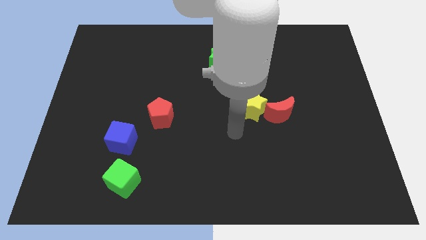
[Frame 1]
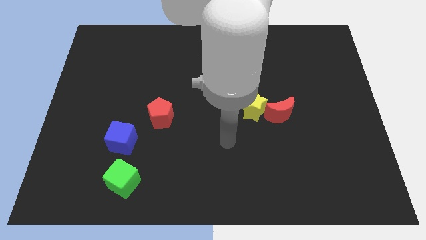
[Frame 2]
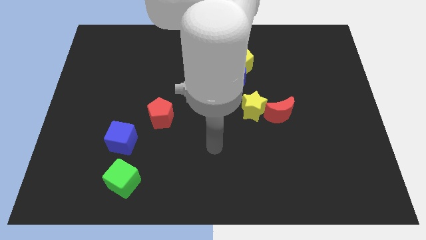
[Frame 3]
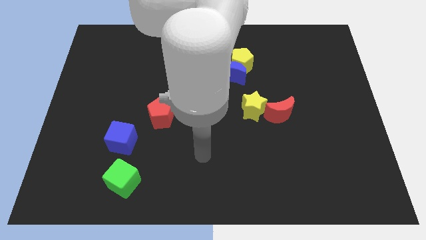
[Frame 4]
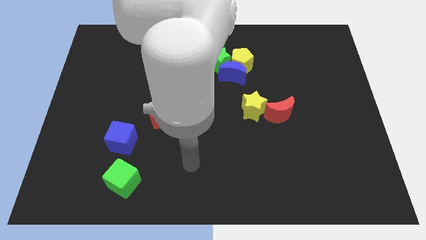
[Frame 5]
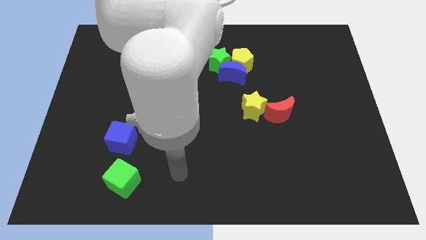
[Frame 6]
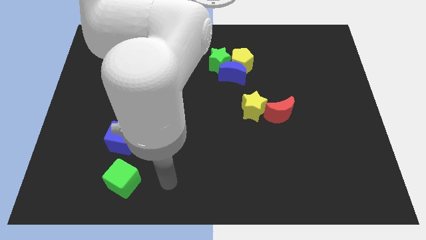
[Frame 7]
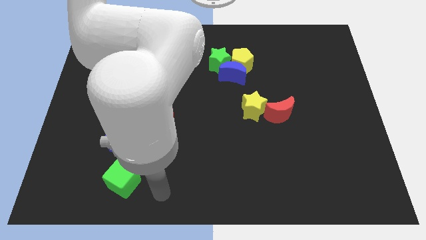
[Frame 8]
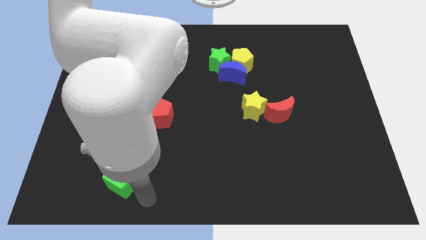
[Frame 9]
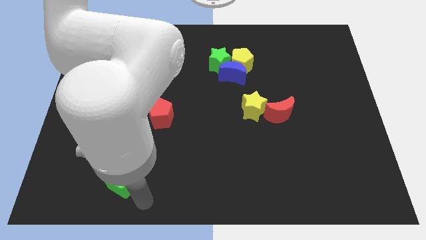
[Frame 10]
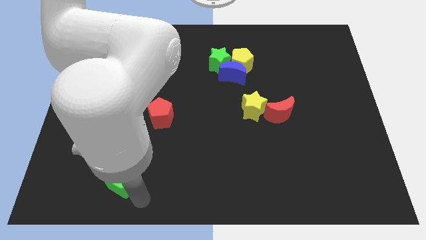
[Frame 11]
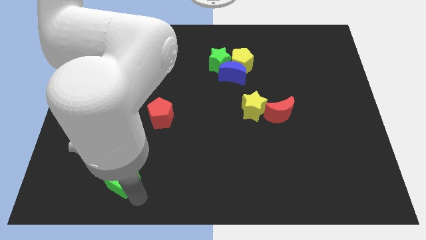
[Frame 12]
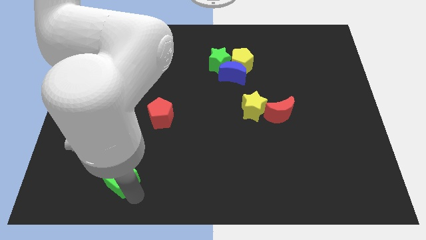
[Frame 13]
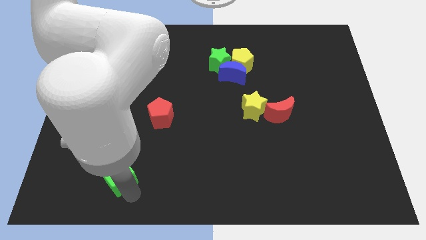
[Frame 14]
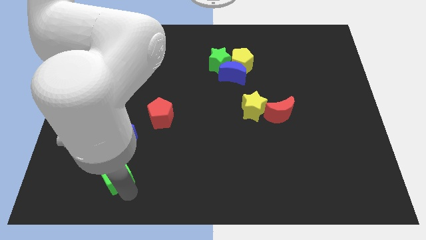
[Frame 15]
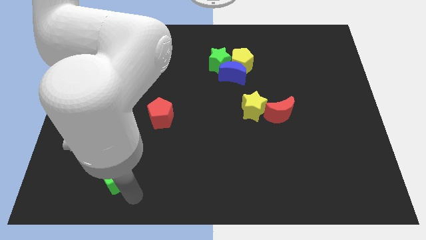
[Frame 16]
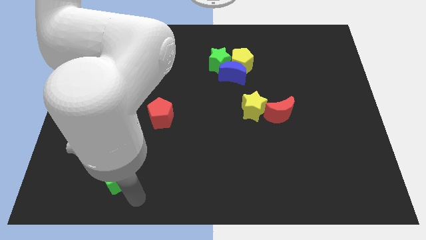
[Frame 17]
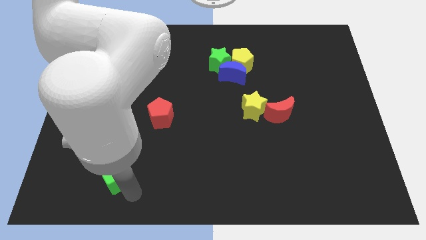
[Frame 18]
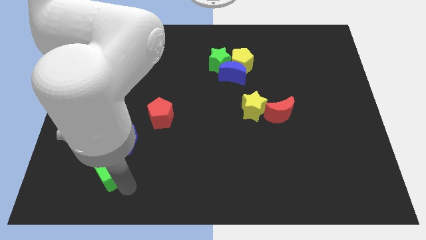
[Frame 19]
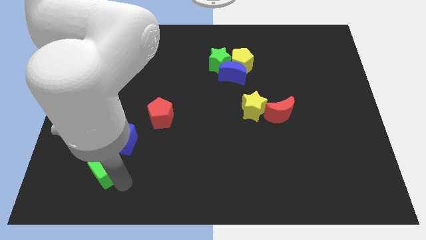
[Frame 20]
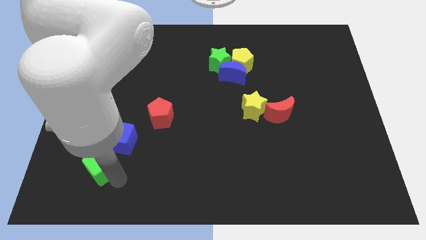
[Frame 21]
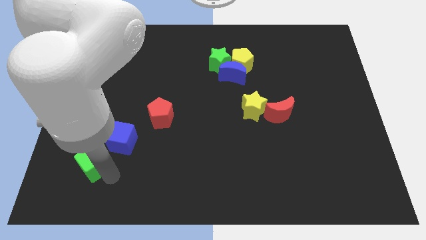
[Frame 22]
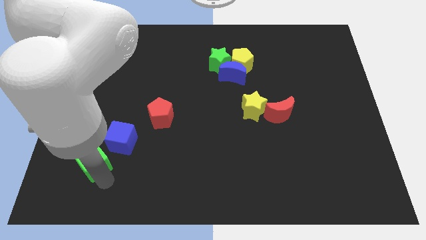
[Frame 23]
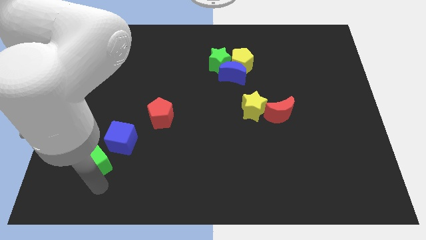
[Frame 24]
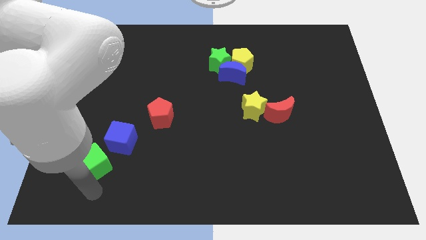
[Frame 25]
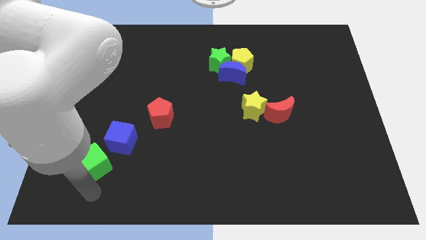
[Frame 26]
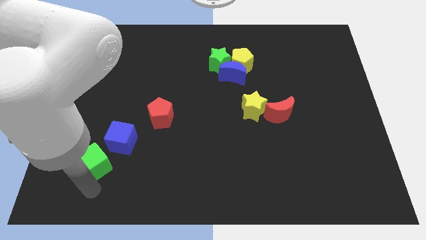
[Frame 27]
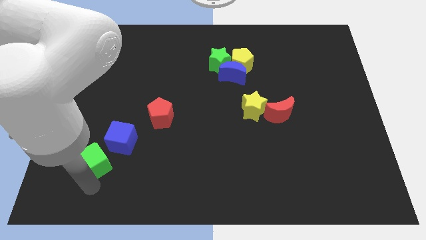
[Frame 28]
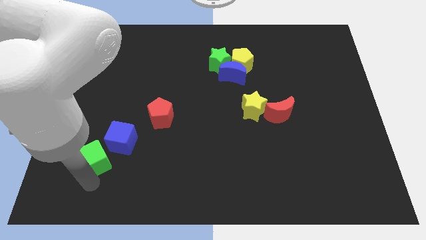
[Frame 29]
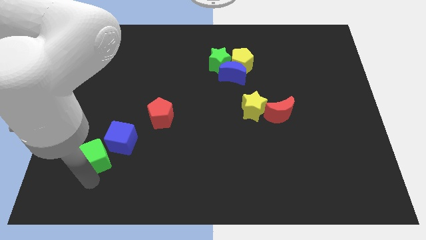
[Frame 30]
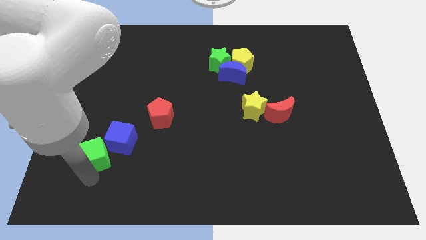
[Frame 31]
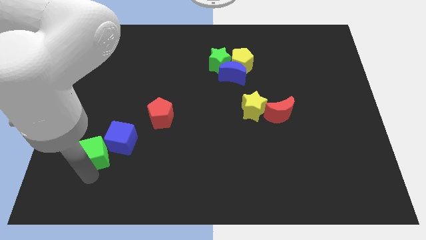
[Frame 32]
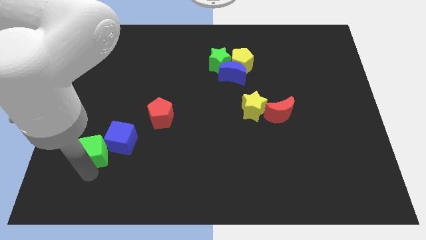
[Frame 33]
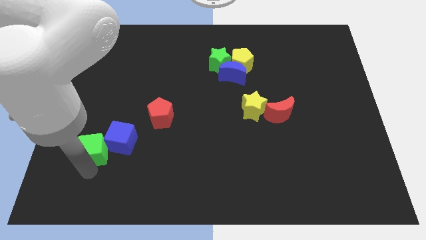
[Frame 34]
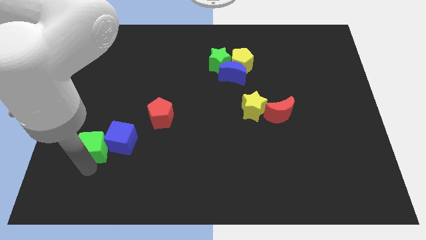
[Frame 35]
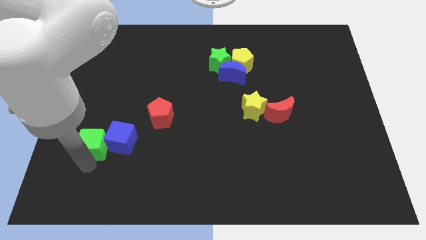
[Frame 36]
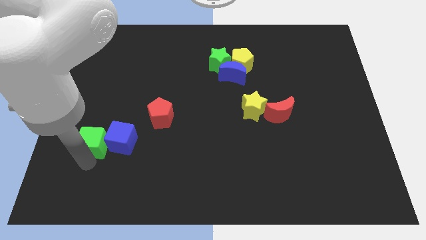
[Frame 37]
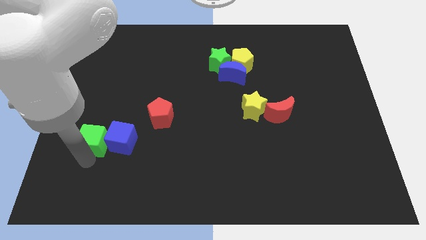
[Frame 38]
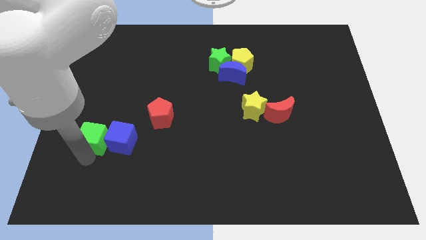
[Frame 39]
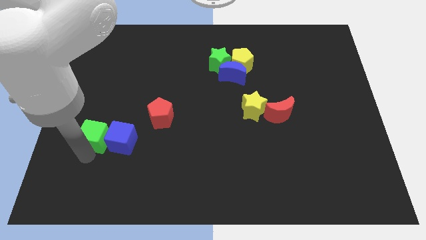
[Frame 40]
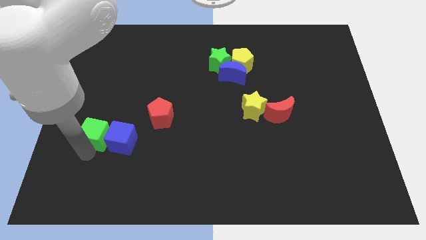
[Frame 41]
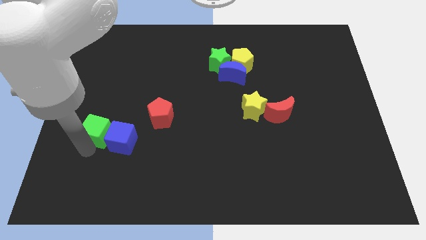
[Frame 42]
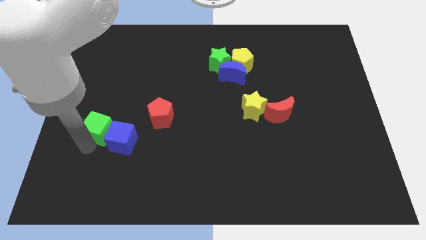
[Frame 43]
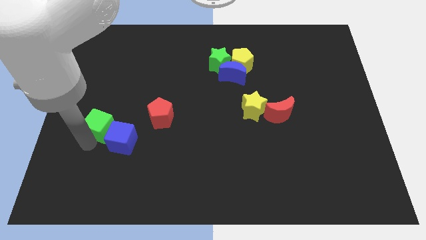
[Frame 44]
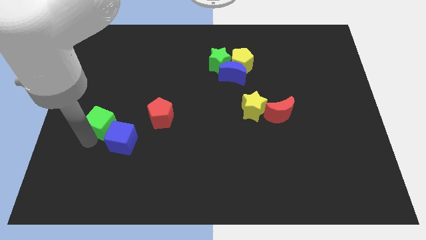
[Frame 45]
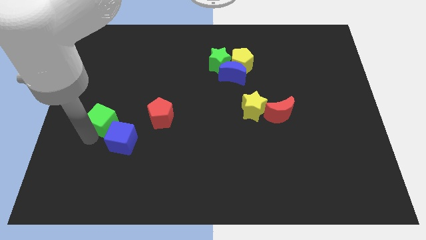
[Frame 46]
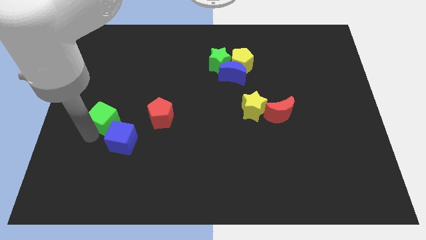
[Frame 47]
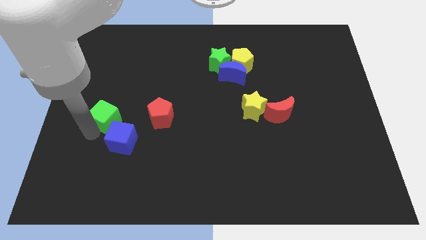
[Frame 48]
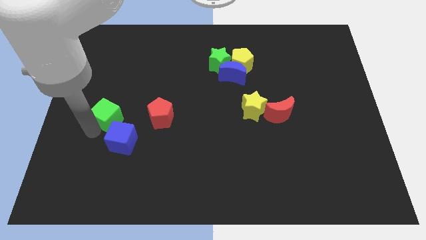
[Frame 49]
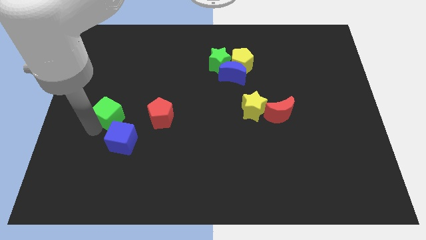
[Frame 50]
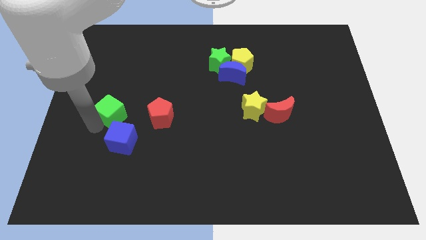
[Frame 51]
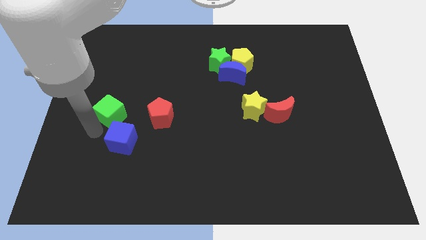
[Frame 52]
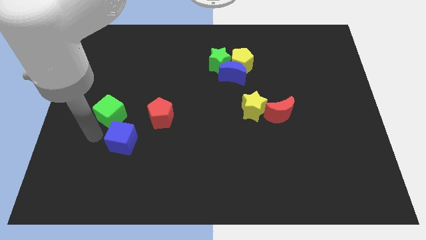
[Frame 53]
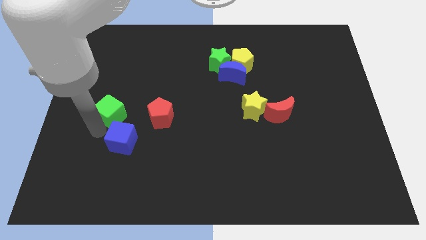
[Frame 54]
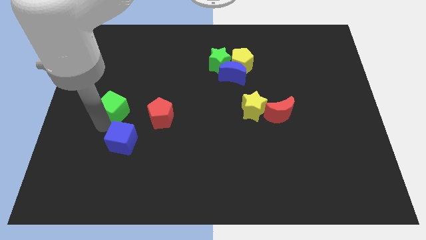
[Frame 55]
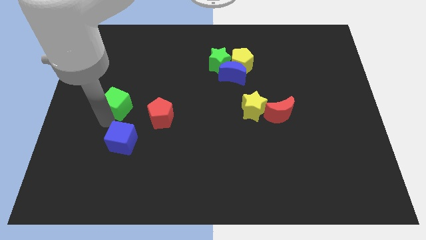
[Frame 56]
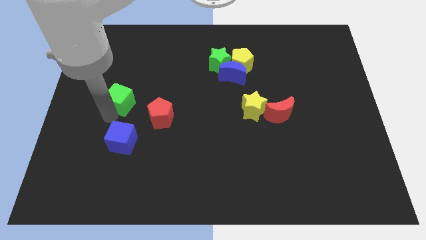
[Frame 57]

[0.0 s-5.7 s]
slide the green cube upwards

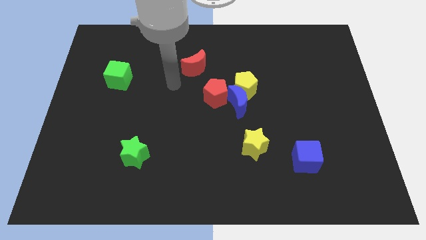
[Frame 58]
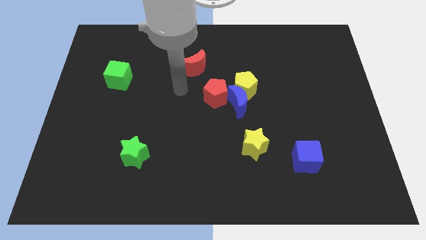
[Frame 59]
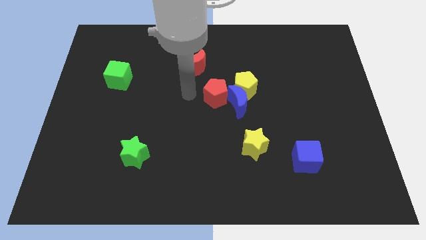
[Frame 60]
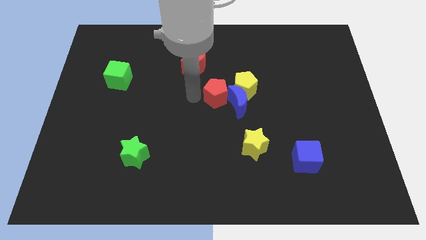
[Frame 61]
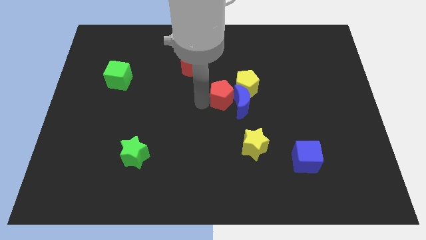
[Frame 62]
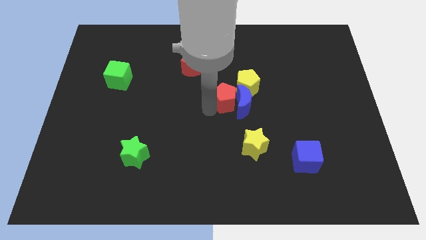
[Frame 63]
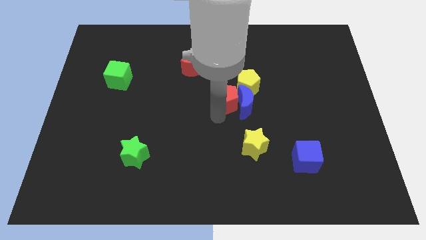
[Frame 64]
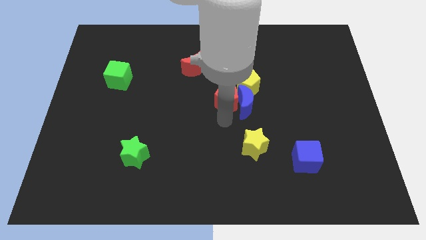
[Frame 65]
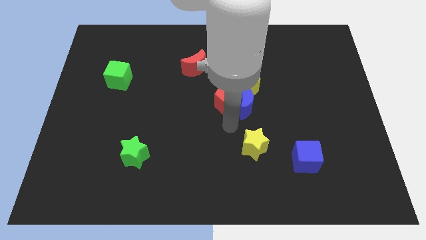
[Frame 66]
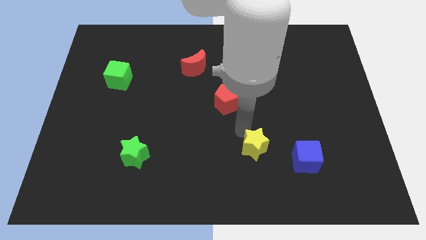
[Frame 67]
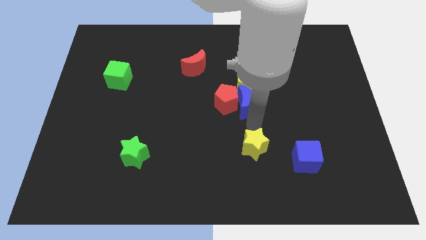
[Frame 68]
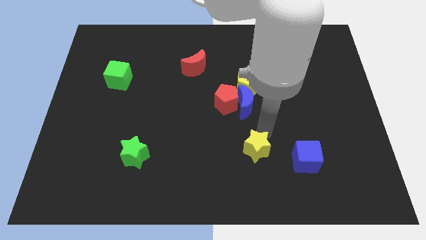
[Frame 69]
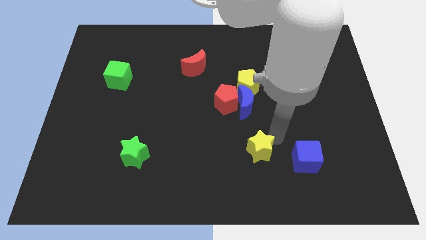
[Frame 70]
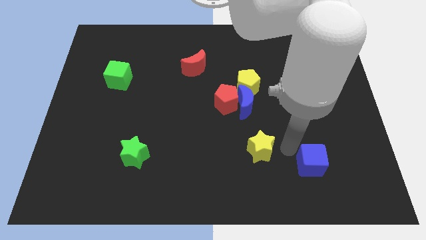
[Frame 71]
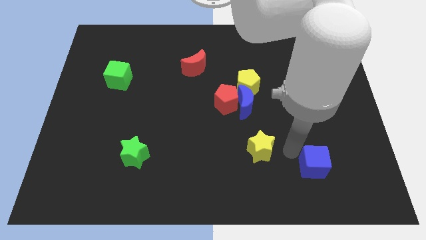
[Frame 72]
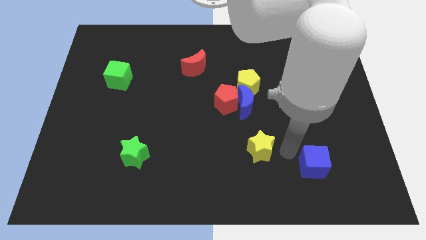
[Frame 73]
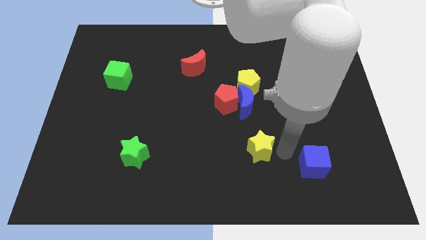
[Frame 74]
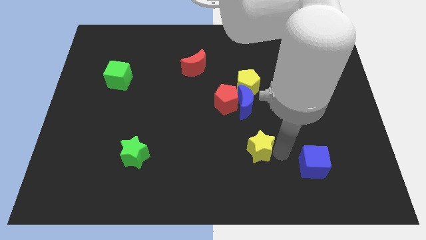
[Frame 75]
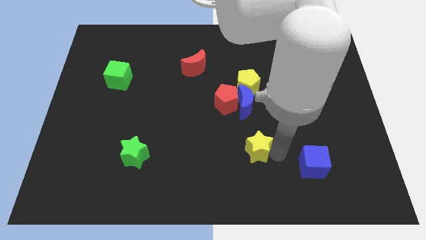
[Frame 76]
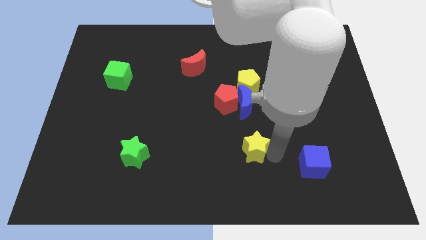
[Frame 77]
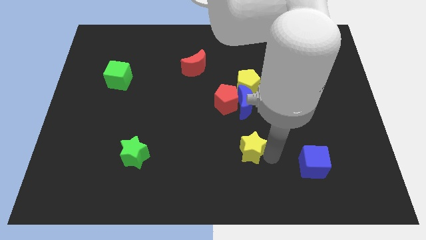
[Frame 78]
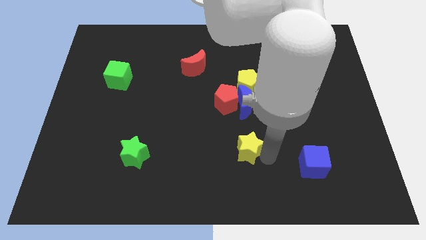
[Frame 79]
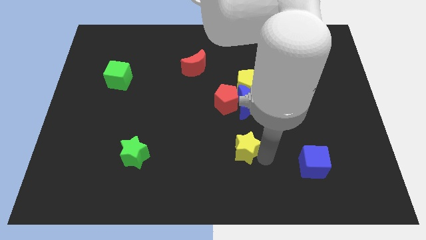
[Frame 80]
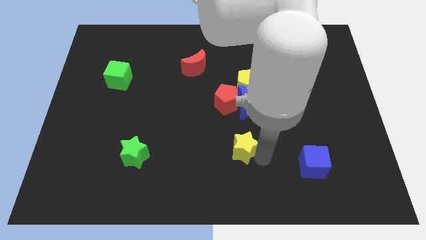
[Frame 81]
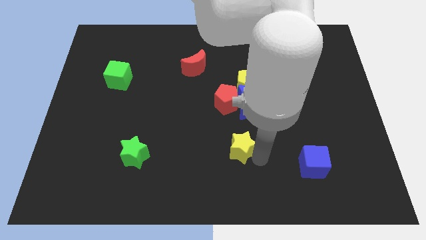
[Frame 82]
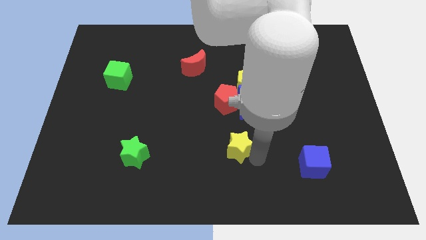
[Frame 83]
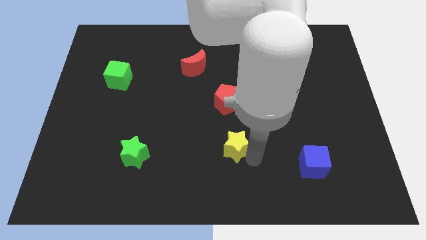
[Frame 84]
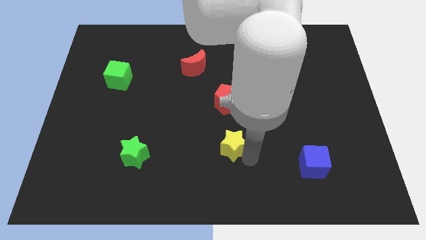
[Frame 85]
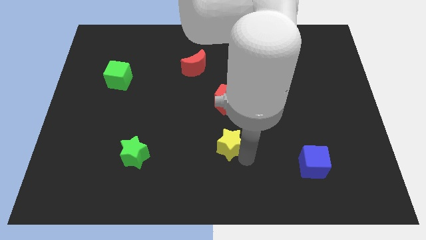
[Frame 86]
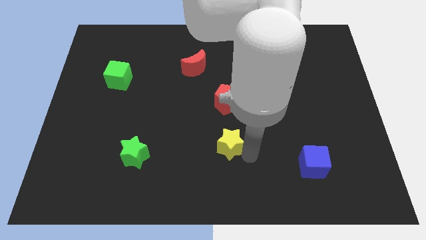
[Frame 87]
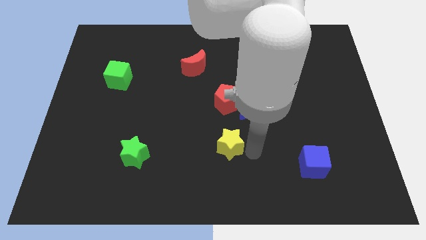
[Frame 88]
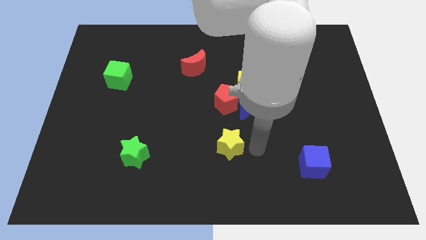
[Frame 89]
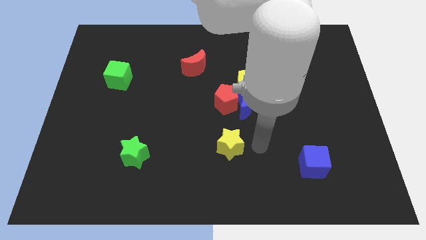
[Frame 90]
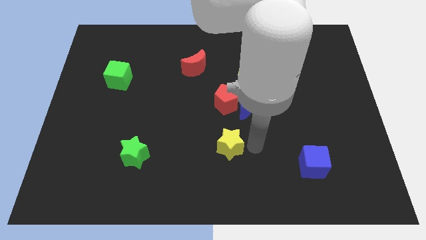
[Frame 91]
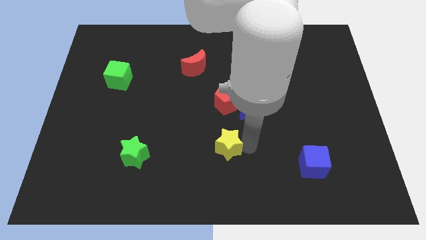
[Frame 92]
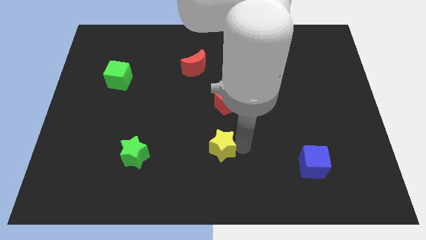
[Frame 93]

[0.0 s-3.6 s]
slide the yellow star to the left a little bit
